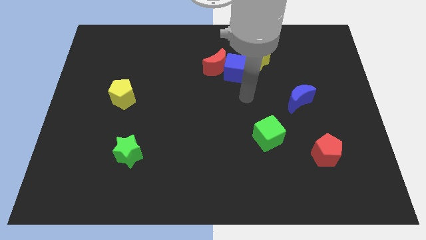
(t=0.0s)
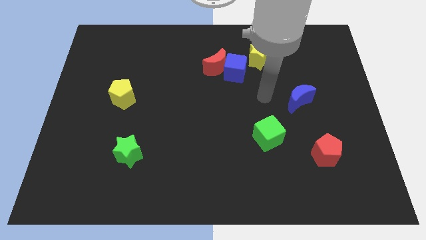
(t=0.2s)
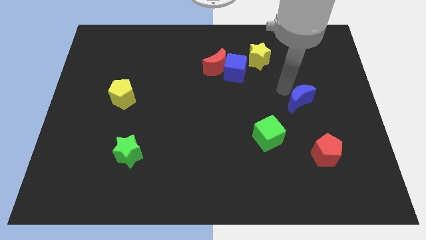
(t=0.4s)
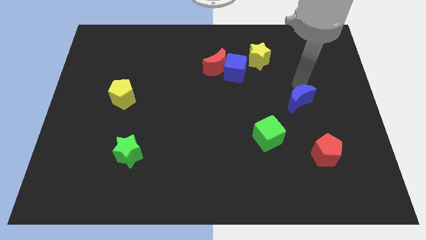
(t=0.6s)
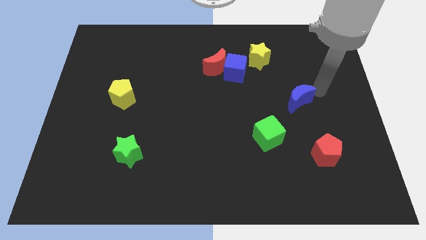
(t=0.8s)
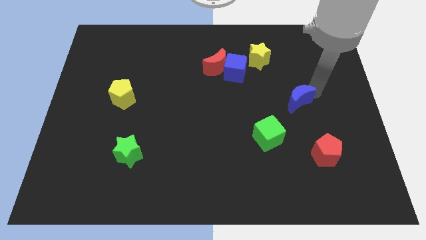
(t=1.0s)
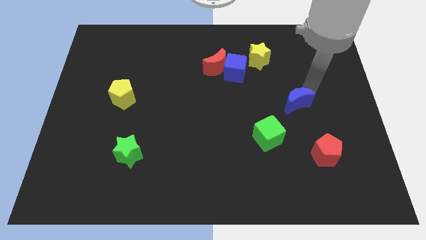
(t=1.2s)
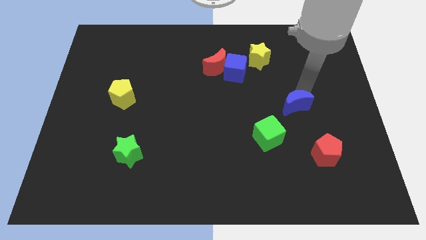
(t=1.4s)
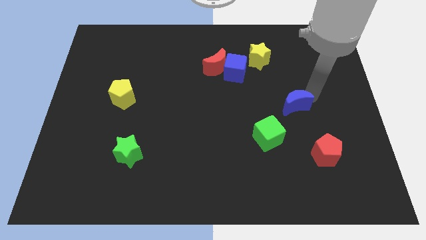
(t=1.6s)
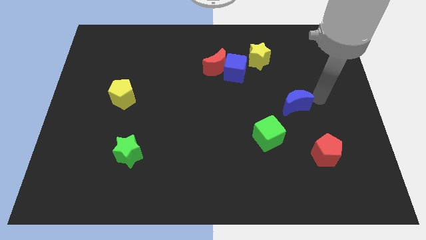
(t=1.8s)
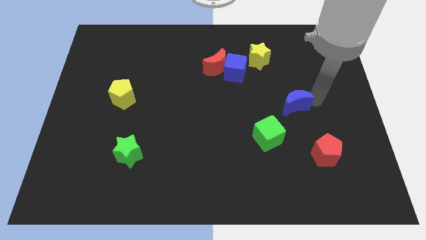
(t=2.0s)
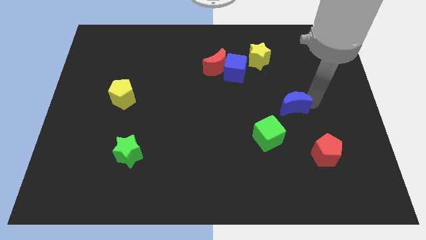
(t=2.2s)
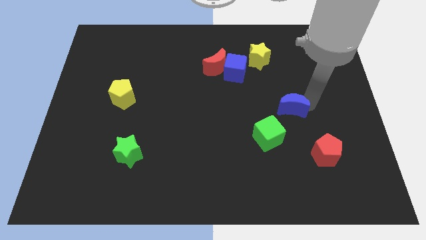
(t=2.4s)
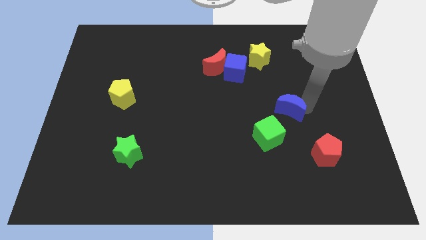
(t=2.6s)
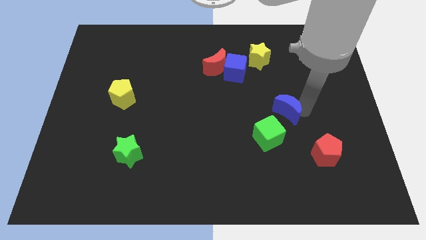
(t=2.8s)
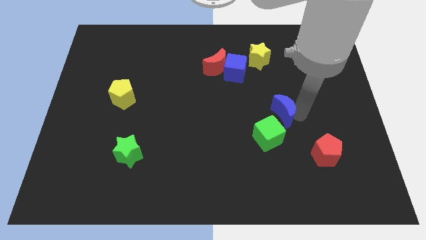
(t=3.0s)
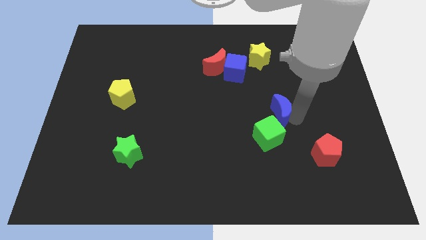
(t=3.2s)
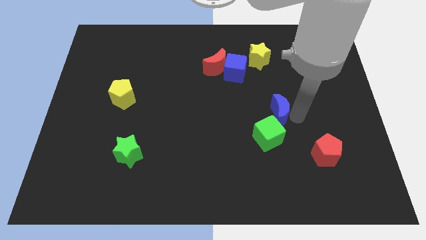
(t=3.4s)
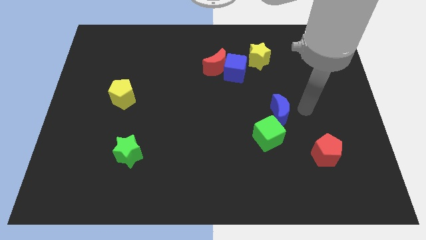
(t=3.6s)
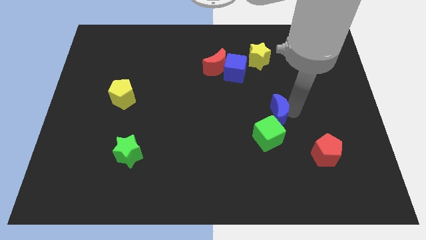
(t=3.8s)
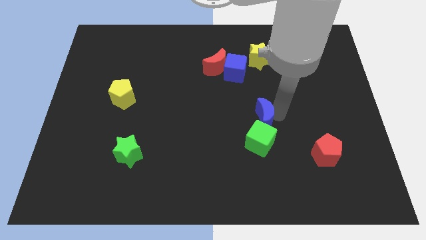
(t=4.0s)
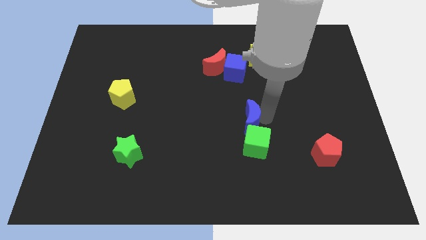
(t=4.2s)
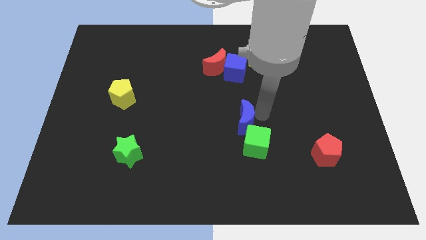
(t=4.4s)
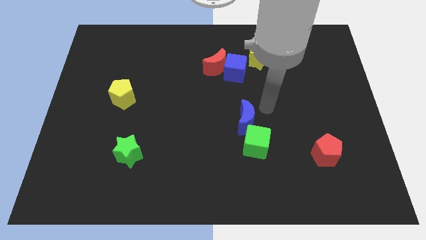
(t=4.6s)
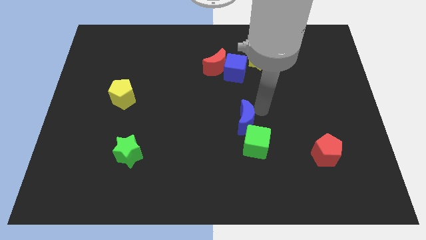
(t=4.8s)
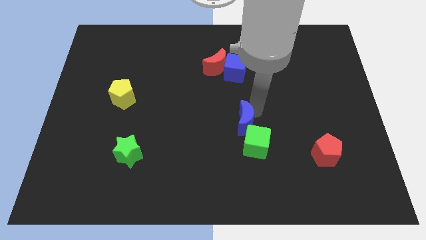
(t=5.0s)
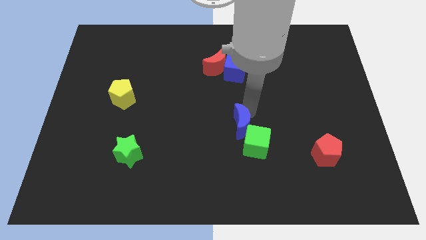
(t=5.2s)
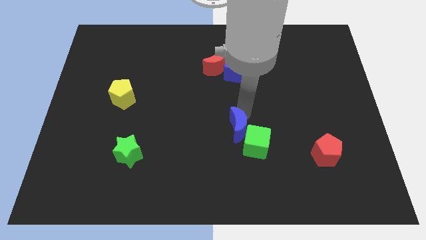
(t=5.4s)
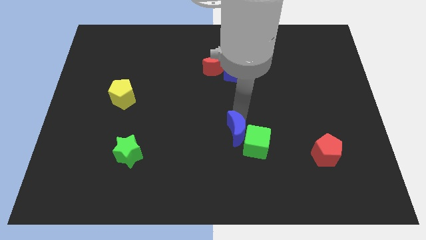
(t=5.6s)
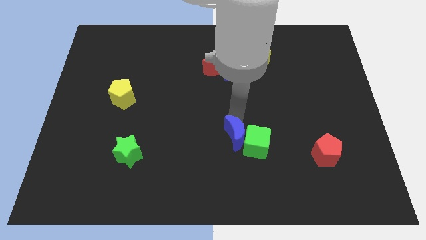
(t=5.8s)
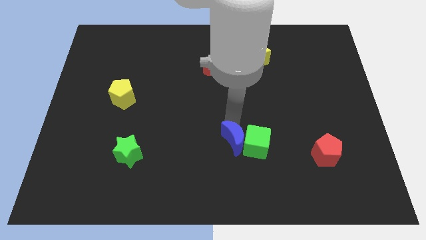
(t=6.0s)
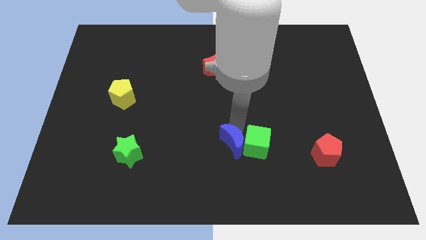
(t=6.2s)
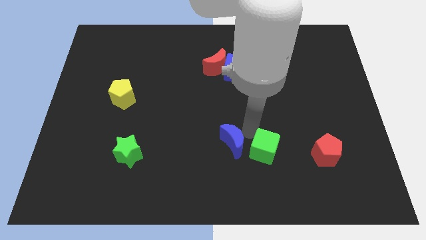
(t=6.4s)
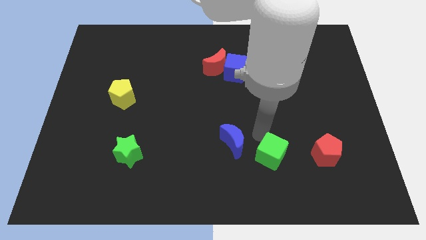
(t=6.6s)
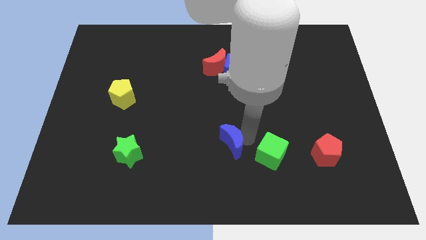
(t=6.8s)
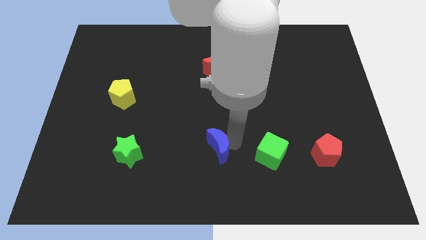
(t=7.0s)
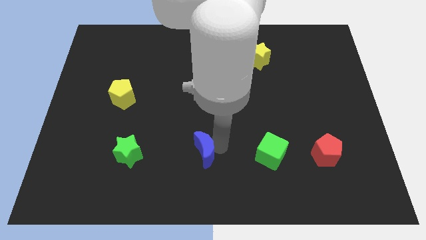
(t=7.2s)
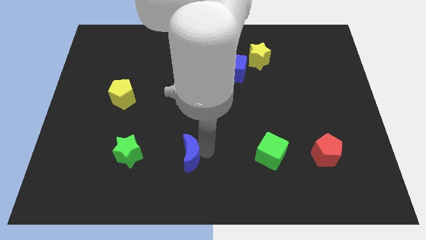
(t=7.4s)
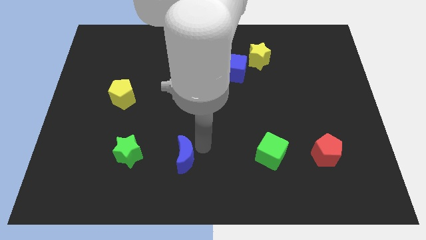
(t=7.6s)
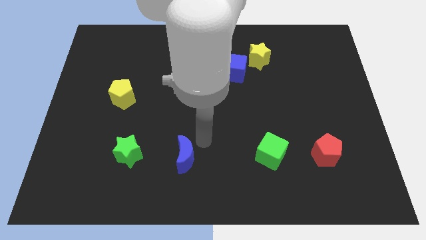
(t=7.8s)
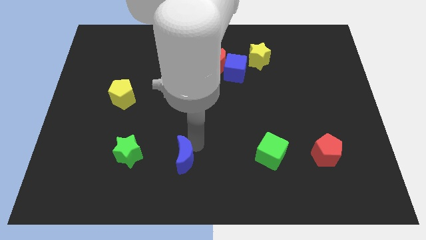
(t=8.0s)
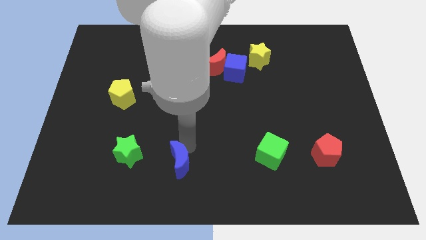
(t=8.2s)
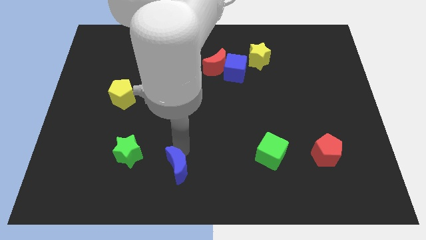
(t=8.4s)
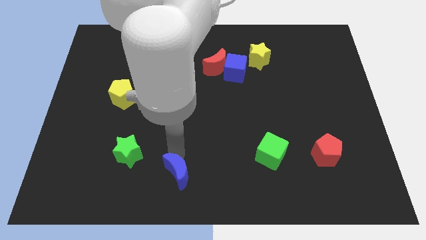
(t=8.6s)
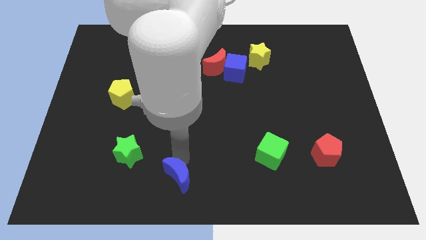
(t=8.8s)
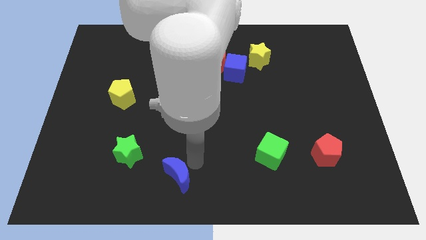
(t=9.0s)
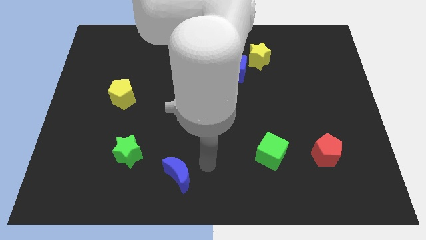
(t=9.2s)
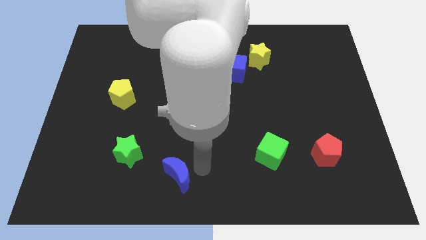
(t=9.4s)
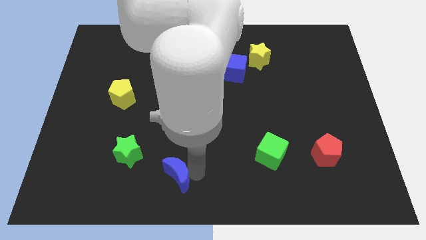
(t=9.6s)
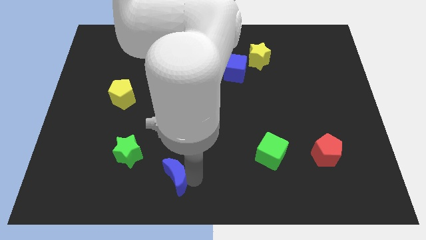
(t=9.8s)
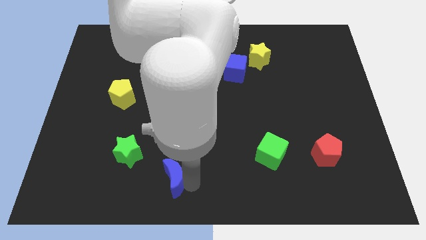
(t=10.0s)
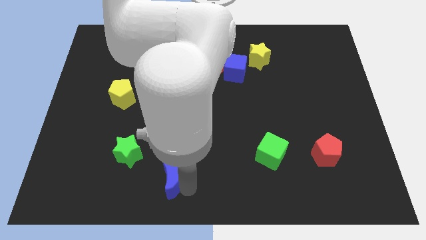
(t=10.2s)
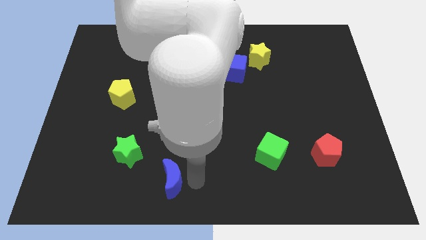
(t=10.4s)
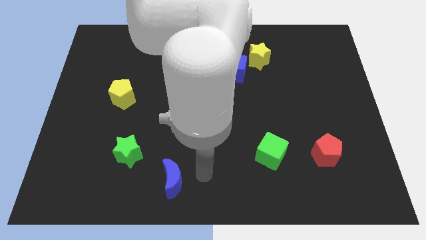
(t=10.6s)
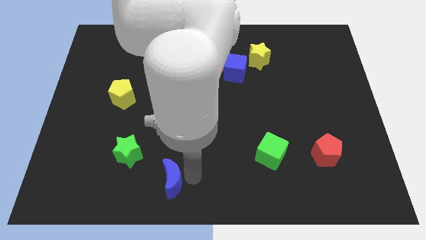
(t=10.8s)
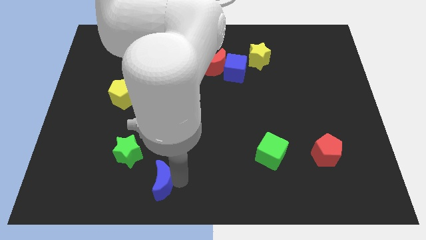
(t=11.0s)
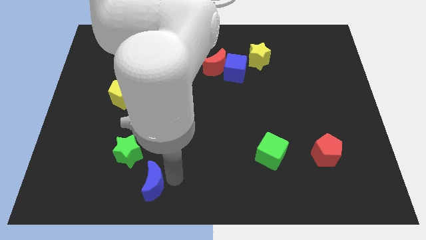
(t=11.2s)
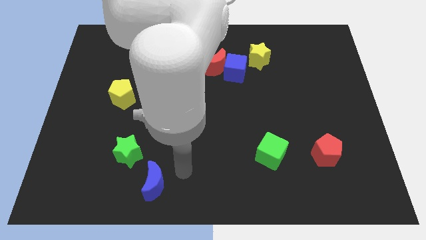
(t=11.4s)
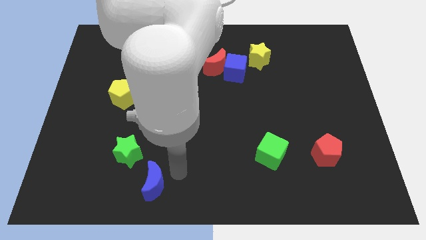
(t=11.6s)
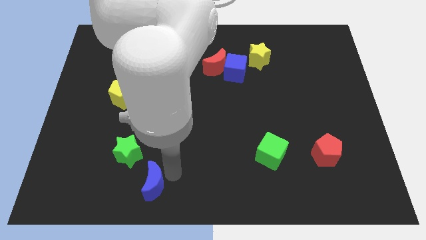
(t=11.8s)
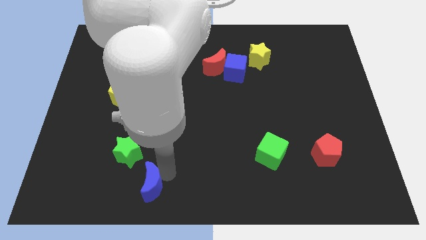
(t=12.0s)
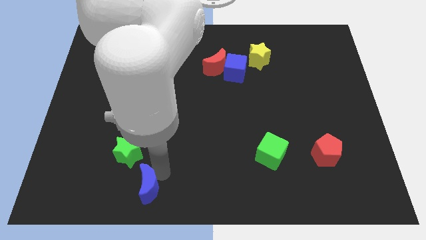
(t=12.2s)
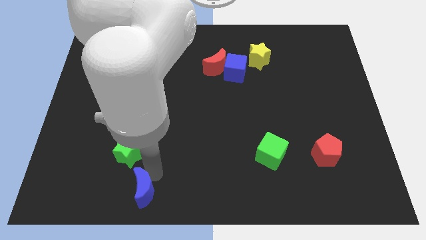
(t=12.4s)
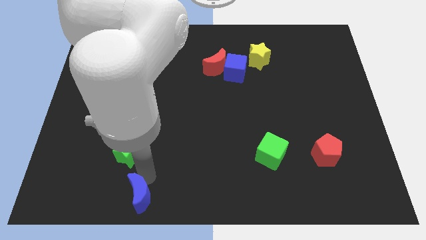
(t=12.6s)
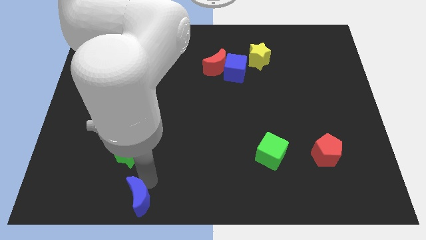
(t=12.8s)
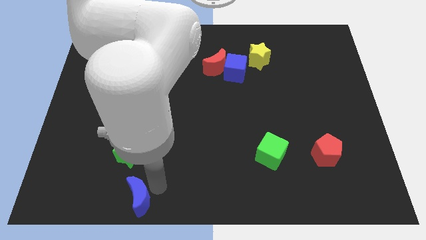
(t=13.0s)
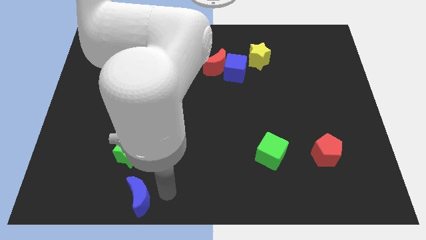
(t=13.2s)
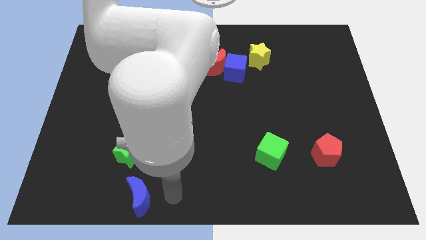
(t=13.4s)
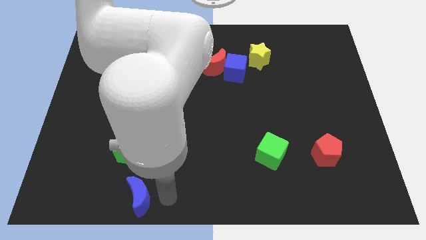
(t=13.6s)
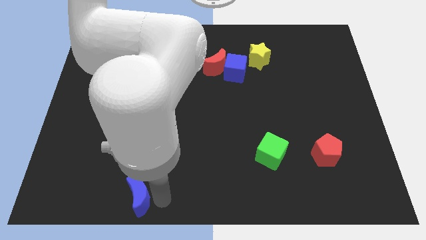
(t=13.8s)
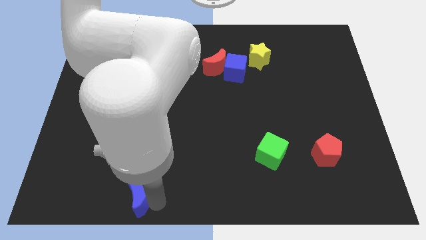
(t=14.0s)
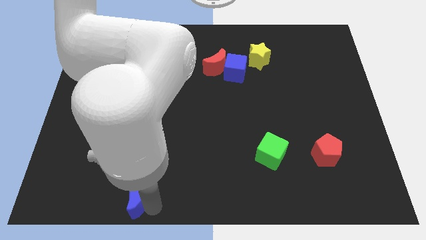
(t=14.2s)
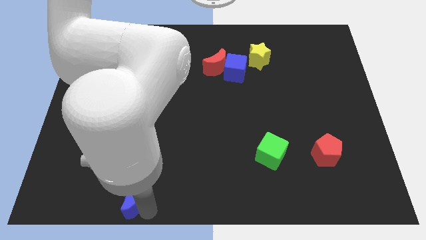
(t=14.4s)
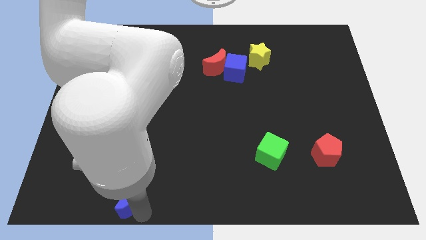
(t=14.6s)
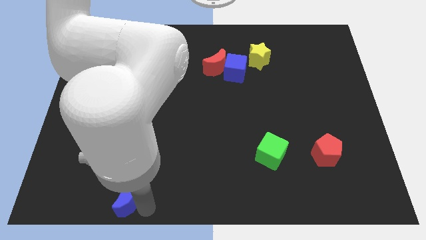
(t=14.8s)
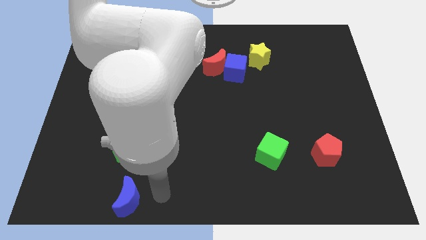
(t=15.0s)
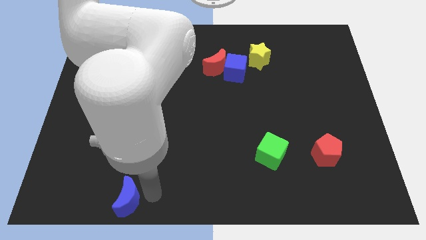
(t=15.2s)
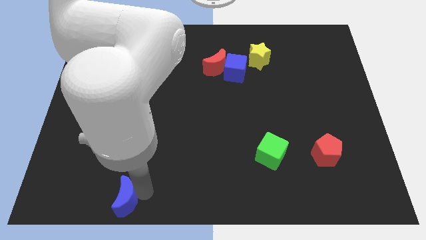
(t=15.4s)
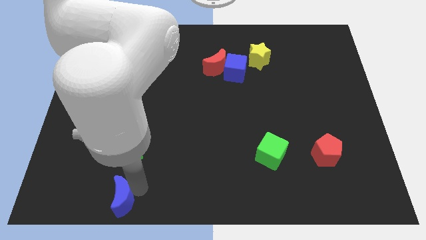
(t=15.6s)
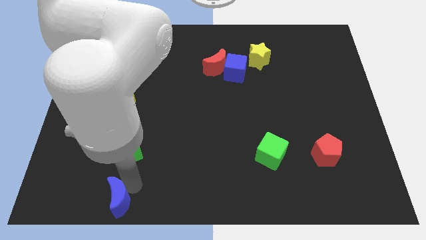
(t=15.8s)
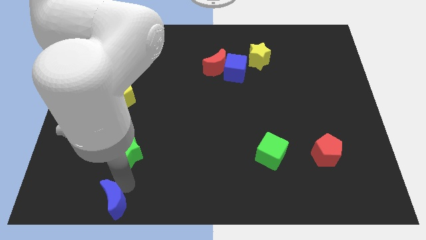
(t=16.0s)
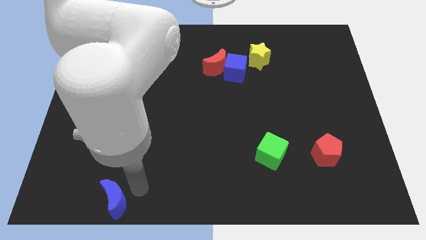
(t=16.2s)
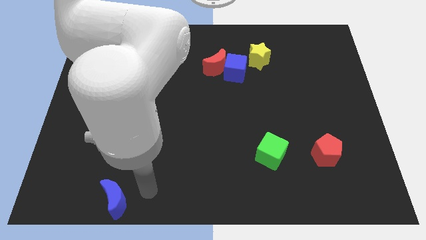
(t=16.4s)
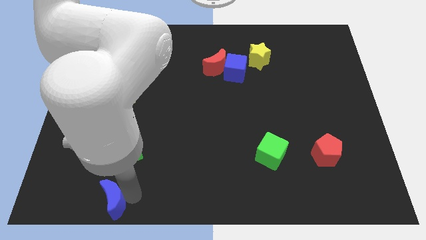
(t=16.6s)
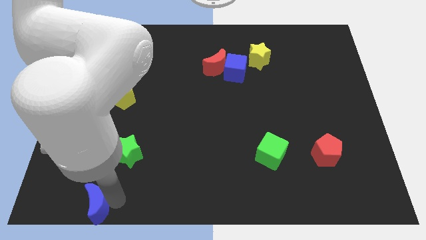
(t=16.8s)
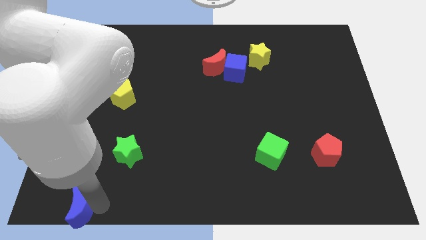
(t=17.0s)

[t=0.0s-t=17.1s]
put the blue moon to the bottom left of the board
